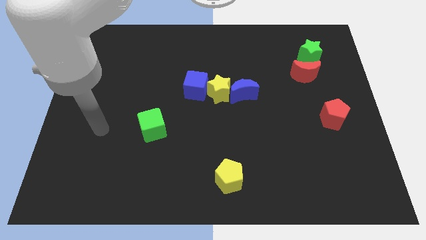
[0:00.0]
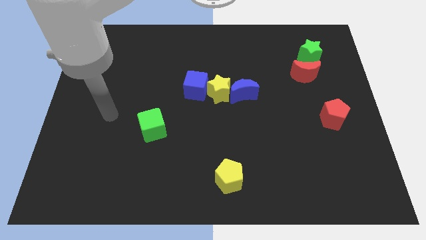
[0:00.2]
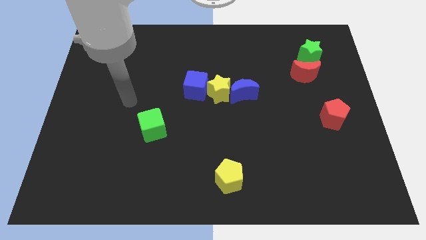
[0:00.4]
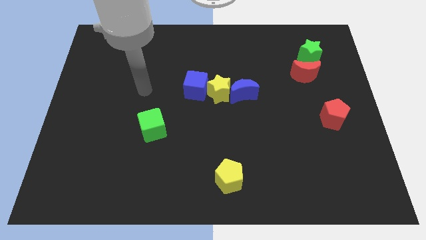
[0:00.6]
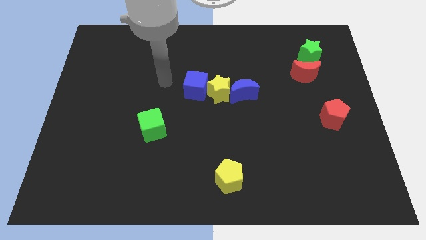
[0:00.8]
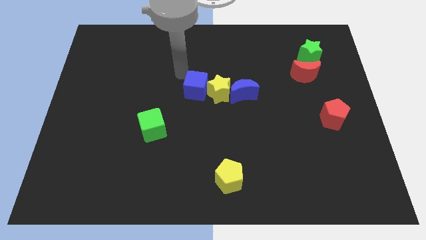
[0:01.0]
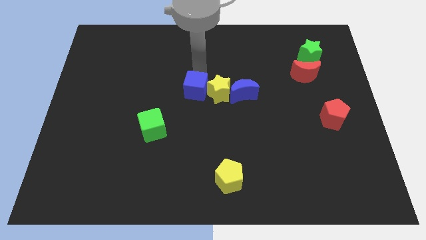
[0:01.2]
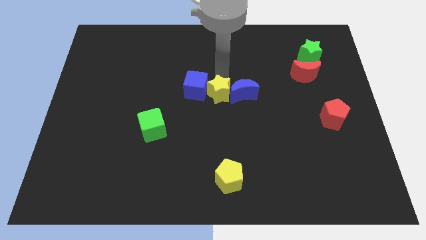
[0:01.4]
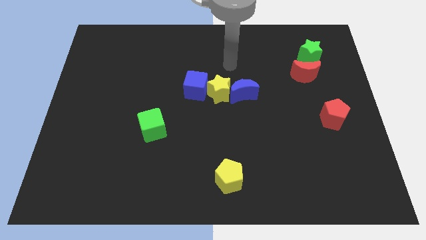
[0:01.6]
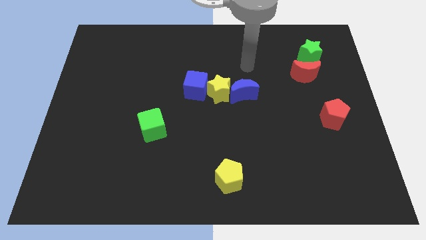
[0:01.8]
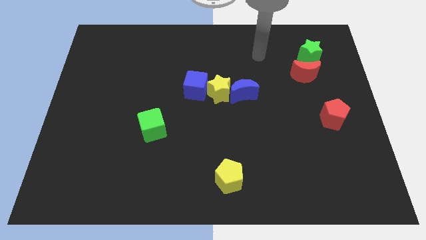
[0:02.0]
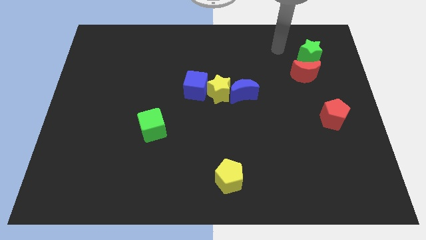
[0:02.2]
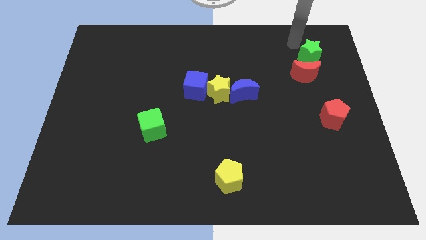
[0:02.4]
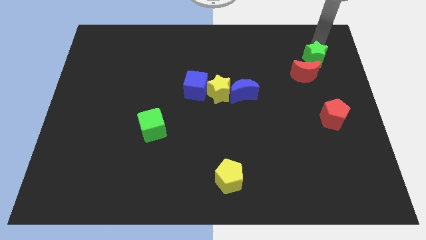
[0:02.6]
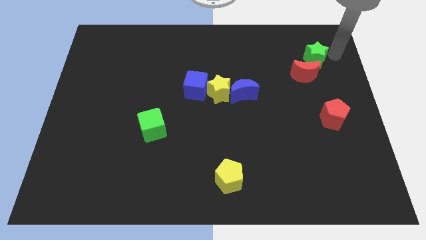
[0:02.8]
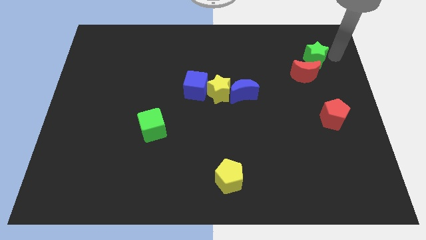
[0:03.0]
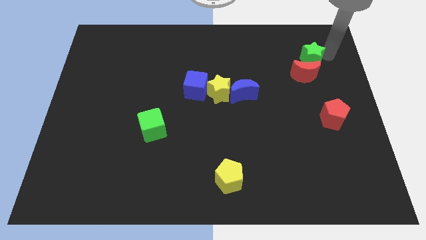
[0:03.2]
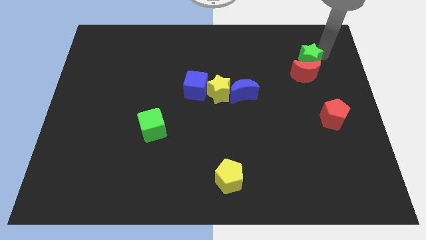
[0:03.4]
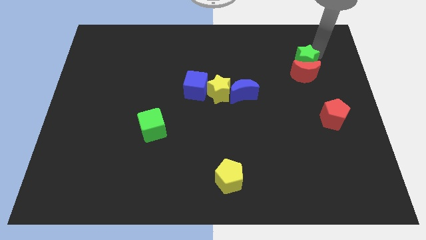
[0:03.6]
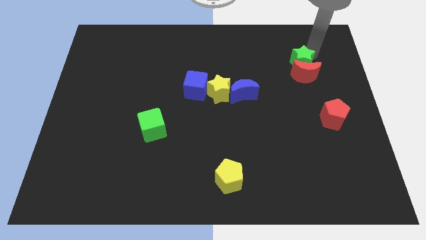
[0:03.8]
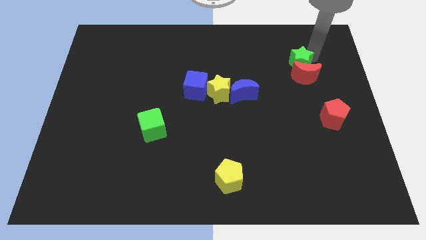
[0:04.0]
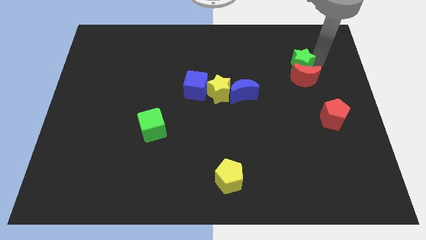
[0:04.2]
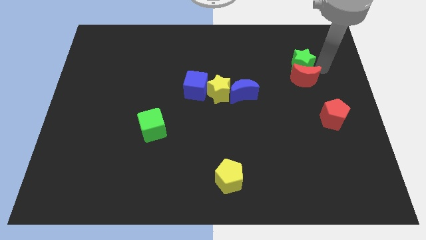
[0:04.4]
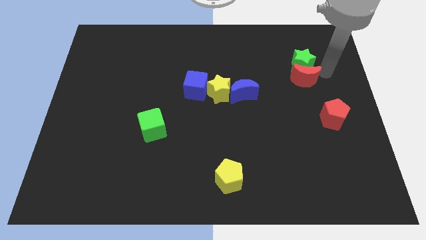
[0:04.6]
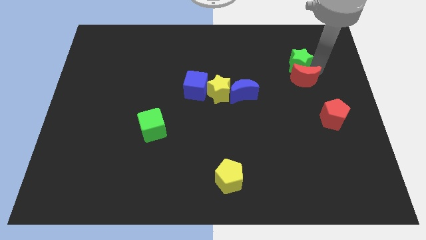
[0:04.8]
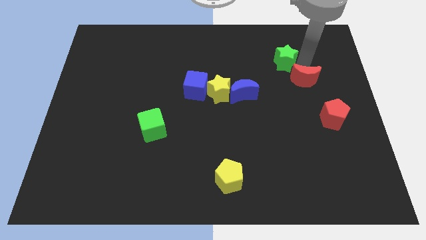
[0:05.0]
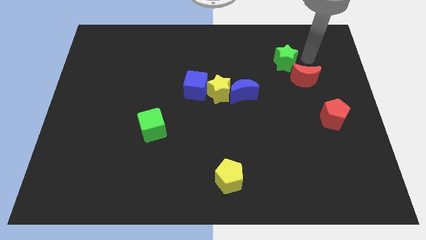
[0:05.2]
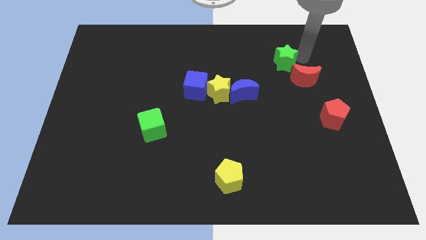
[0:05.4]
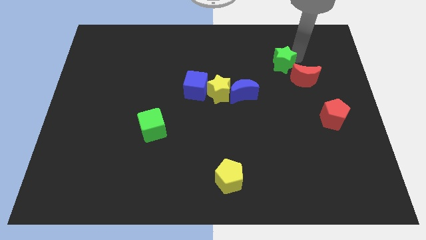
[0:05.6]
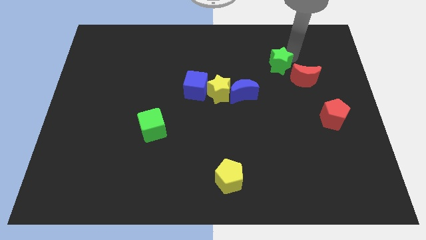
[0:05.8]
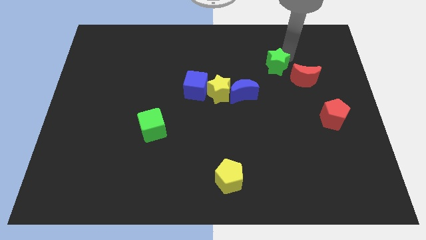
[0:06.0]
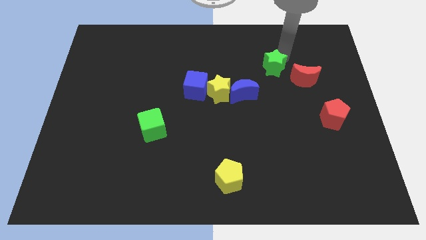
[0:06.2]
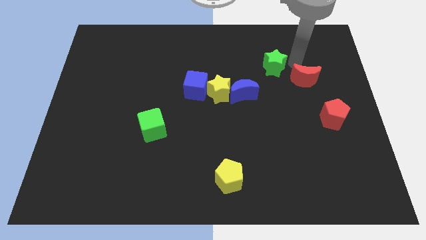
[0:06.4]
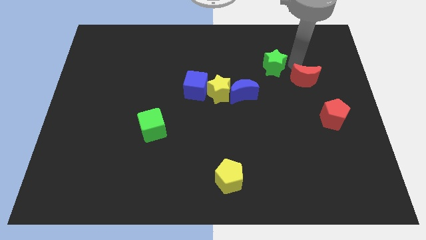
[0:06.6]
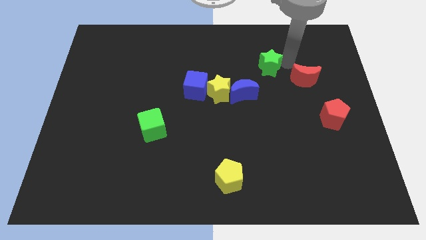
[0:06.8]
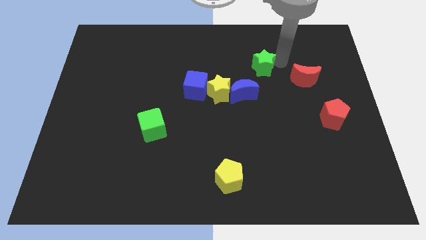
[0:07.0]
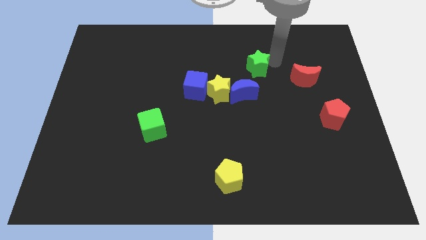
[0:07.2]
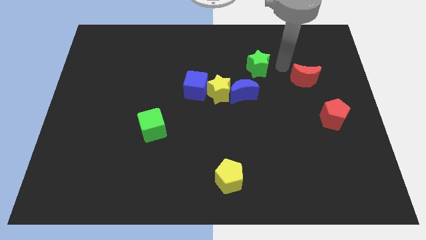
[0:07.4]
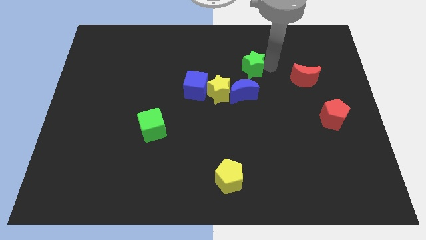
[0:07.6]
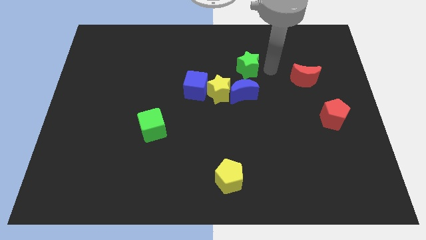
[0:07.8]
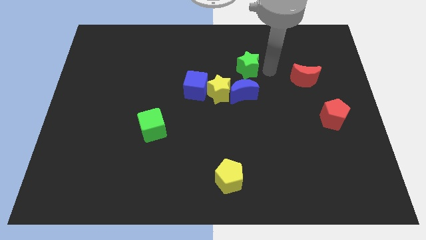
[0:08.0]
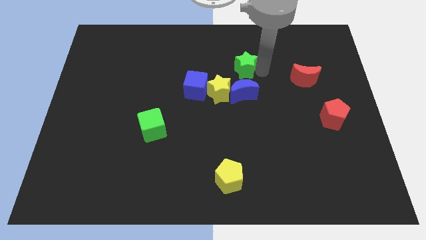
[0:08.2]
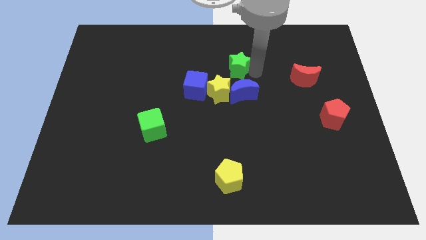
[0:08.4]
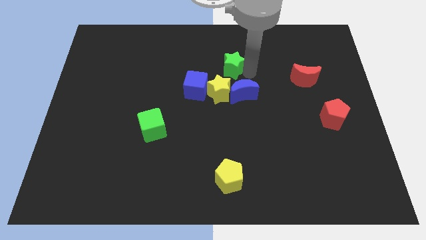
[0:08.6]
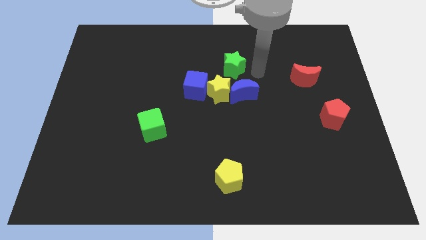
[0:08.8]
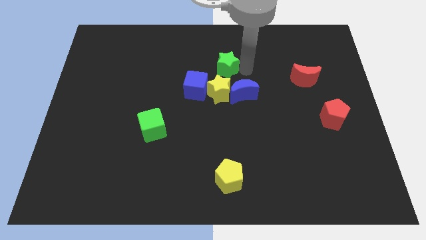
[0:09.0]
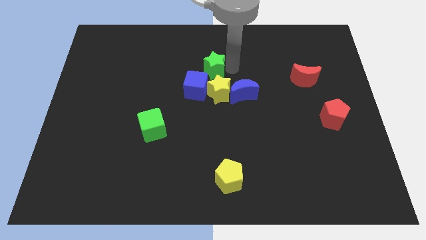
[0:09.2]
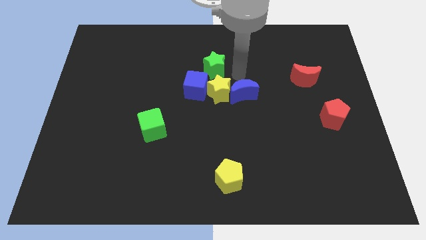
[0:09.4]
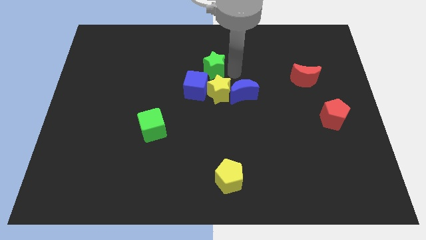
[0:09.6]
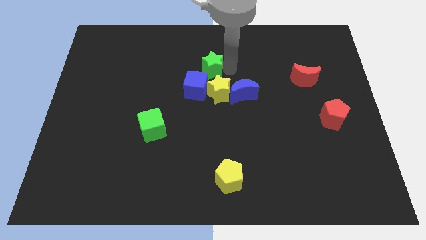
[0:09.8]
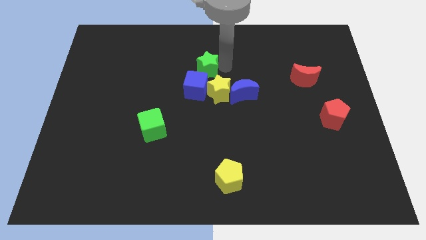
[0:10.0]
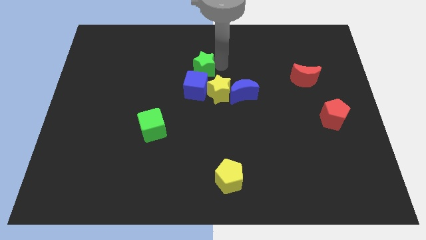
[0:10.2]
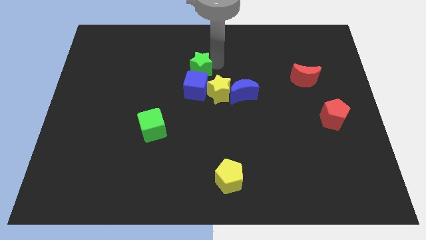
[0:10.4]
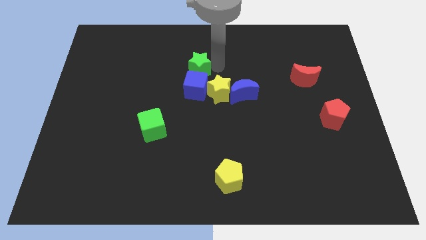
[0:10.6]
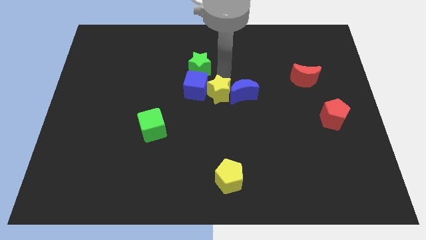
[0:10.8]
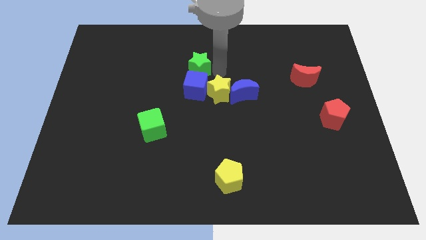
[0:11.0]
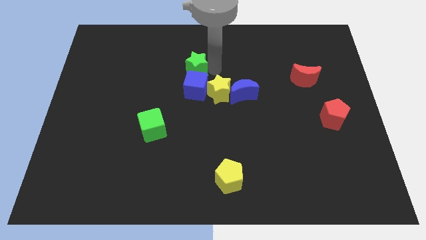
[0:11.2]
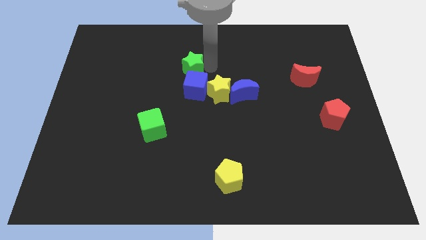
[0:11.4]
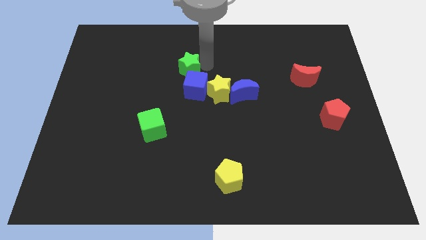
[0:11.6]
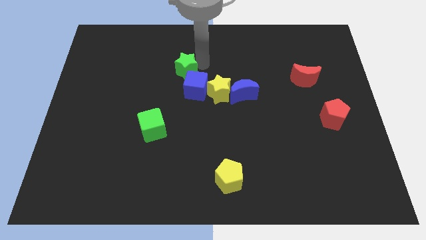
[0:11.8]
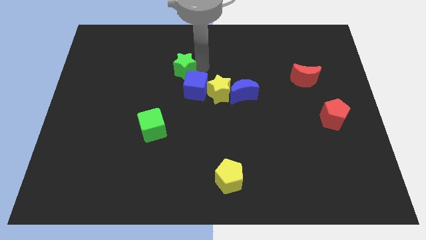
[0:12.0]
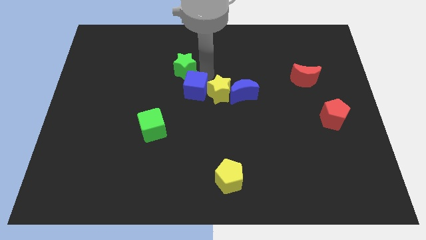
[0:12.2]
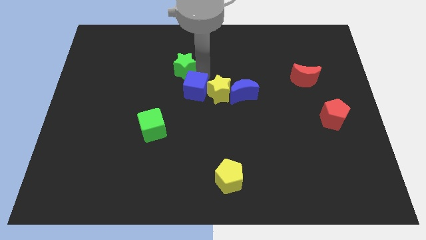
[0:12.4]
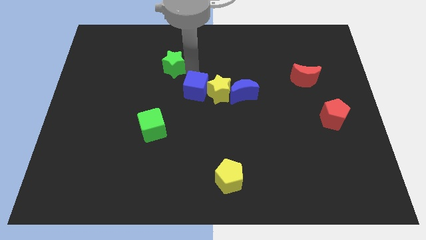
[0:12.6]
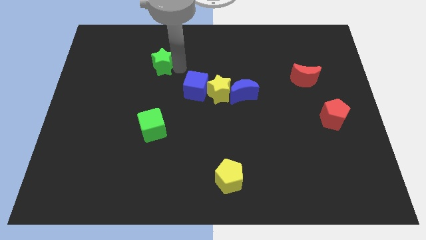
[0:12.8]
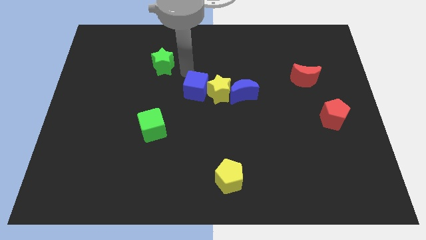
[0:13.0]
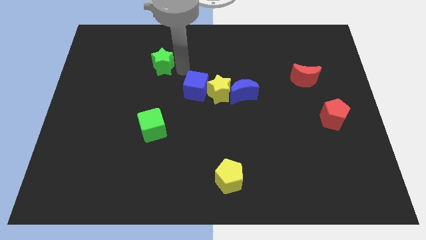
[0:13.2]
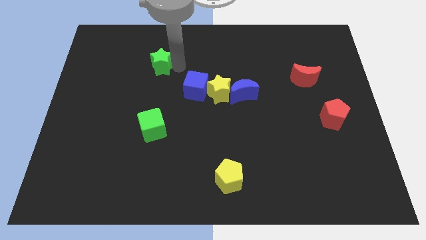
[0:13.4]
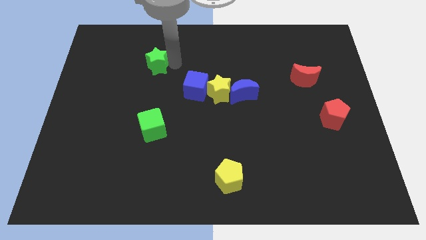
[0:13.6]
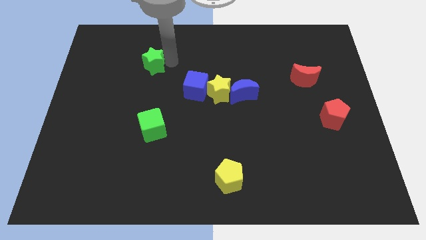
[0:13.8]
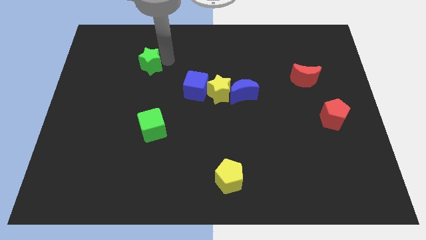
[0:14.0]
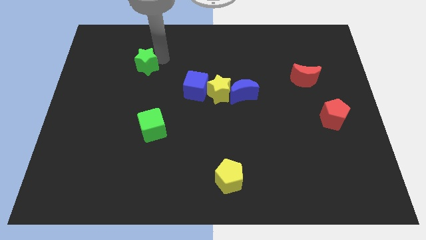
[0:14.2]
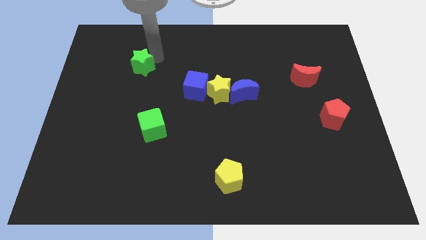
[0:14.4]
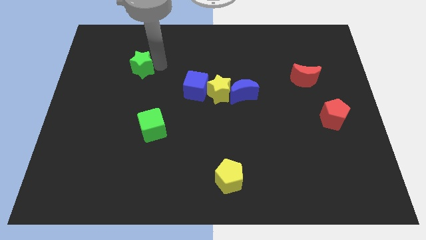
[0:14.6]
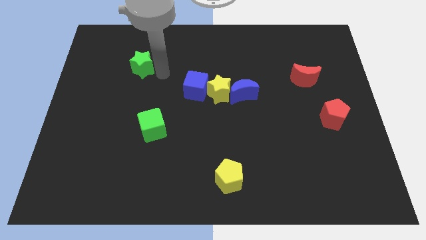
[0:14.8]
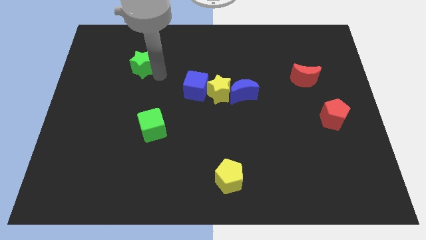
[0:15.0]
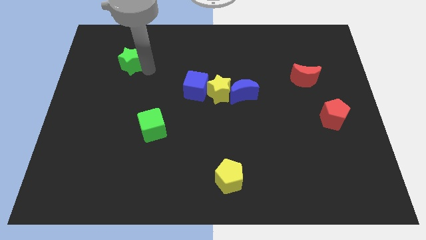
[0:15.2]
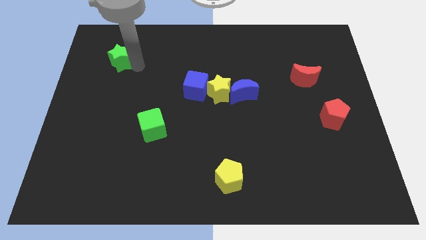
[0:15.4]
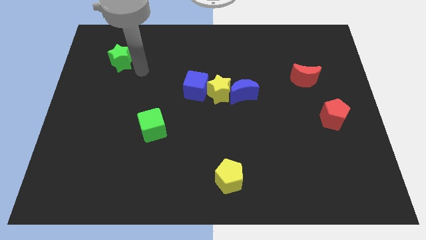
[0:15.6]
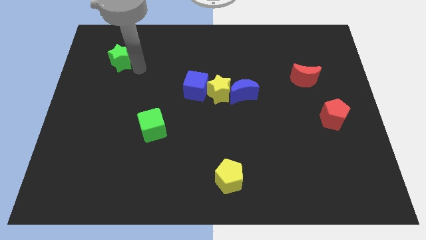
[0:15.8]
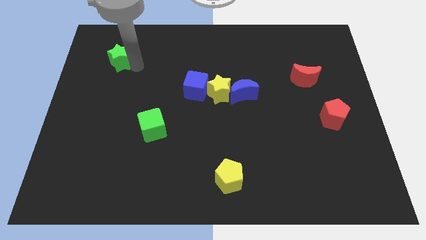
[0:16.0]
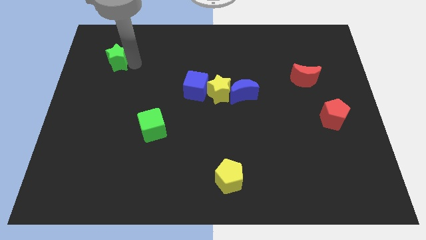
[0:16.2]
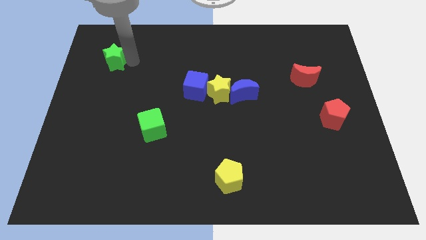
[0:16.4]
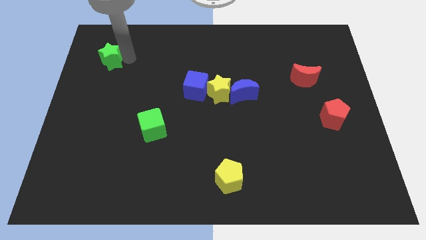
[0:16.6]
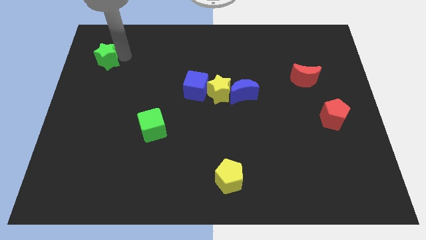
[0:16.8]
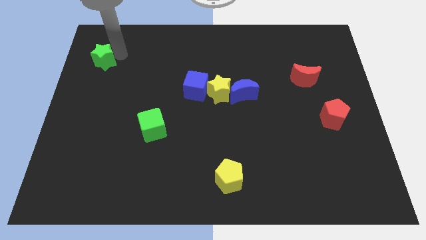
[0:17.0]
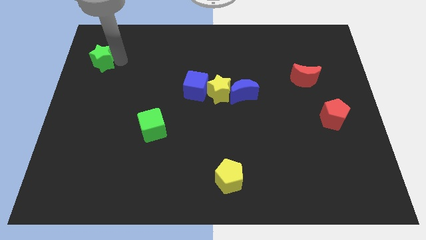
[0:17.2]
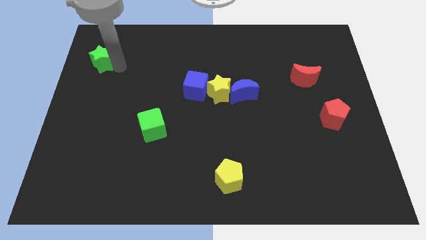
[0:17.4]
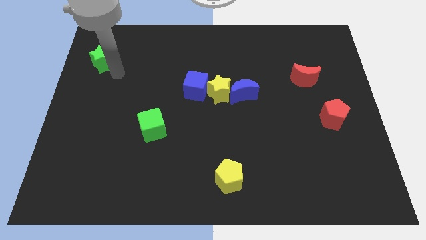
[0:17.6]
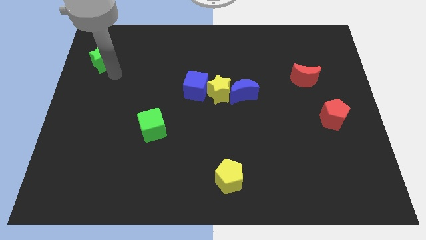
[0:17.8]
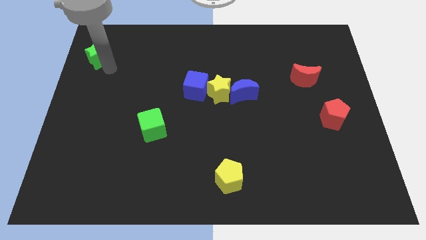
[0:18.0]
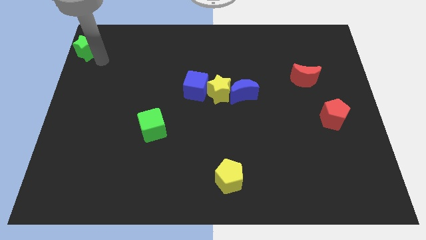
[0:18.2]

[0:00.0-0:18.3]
push the green star to the upper left corner
